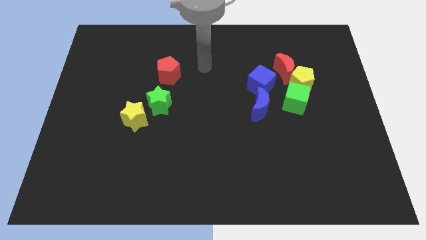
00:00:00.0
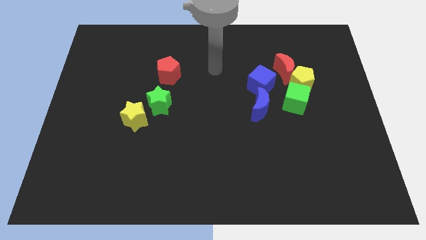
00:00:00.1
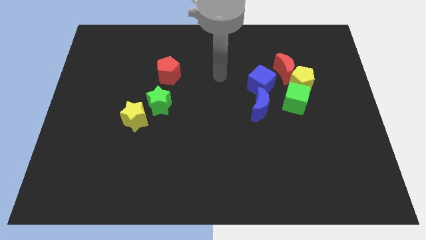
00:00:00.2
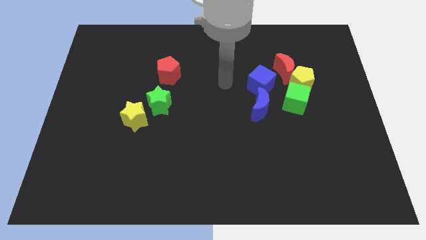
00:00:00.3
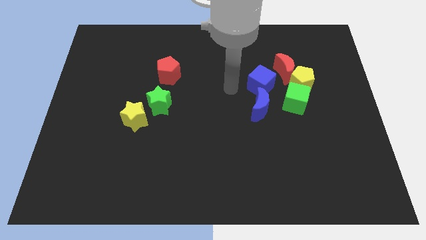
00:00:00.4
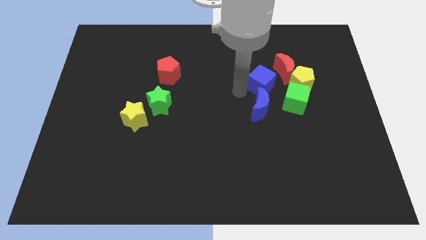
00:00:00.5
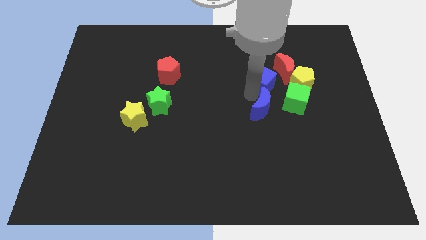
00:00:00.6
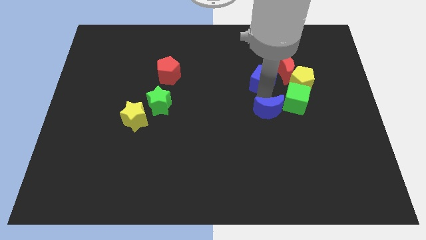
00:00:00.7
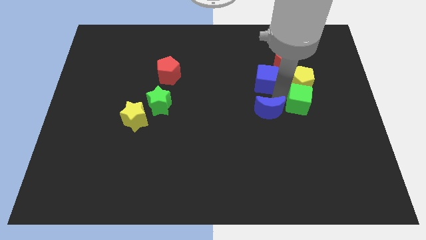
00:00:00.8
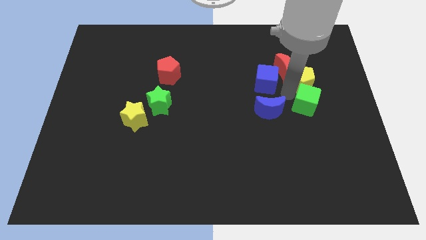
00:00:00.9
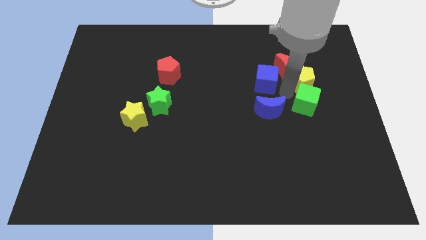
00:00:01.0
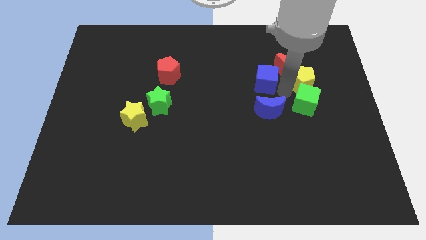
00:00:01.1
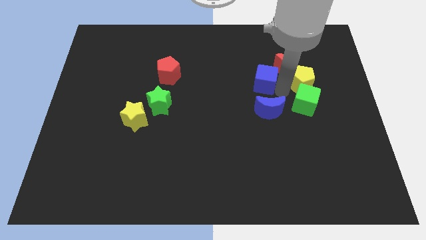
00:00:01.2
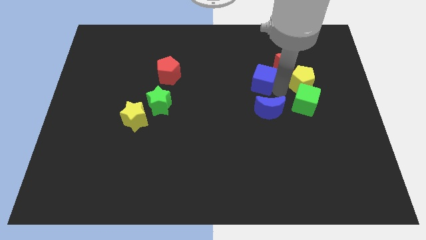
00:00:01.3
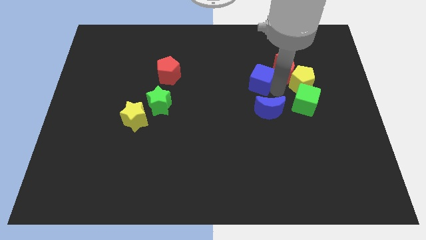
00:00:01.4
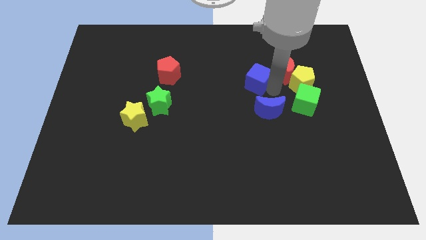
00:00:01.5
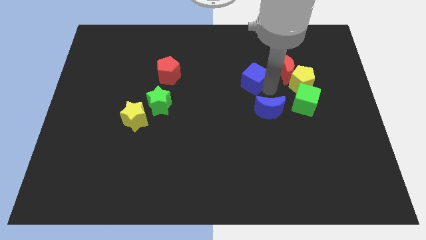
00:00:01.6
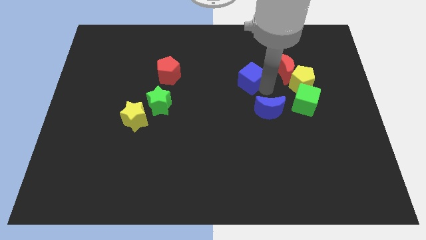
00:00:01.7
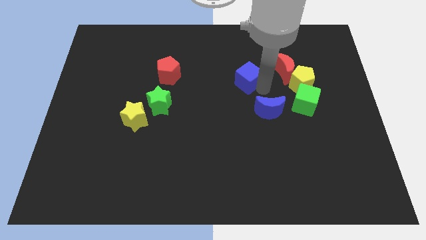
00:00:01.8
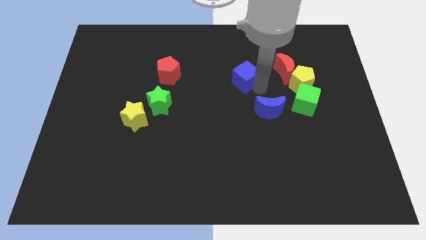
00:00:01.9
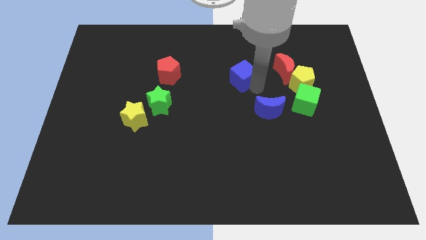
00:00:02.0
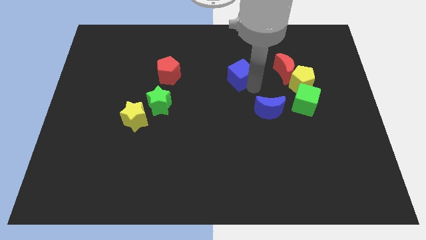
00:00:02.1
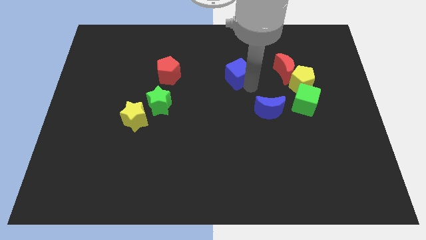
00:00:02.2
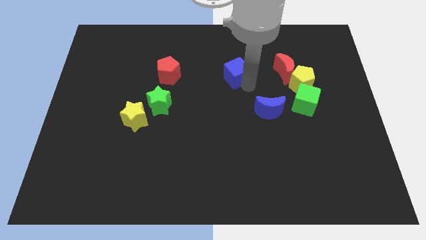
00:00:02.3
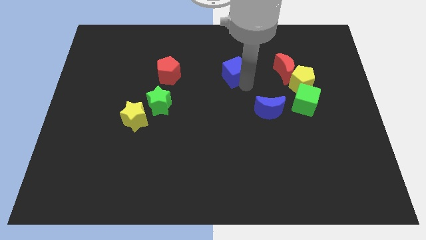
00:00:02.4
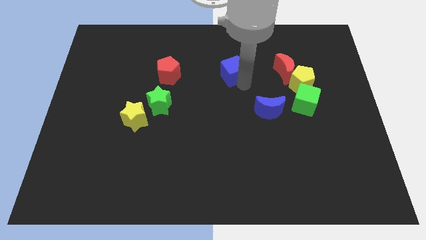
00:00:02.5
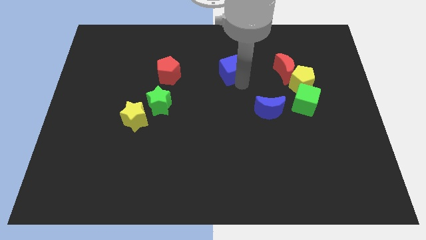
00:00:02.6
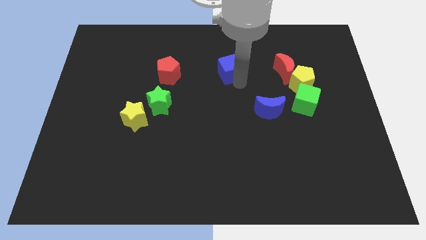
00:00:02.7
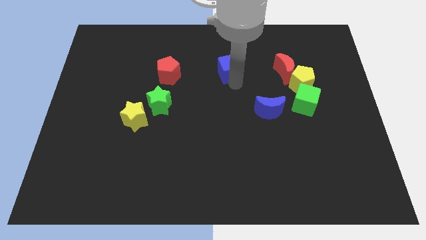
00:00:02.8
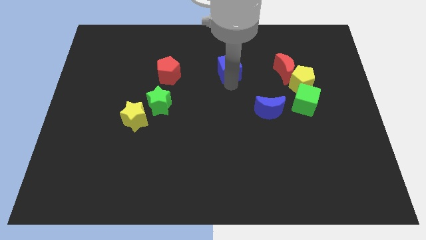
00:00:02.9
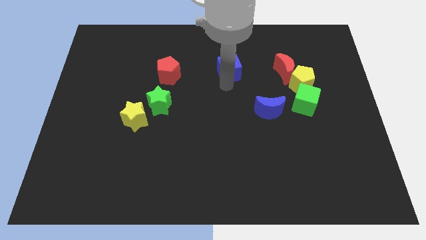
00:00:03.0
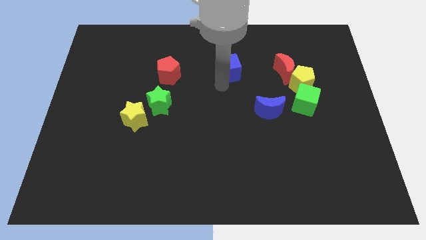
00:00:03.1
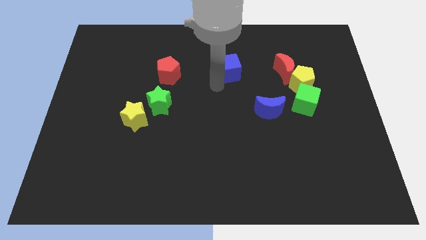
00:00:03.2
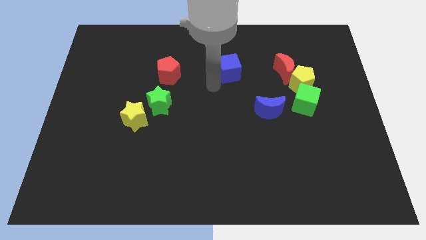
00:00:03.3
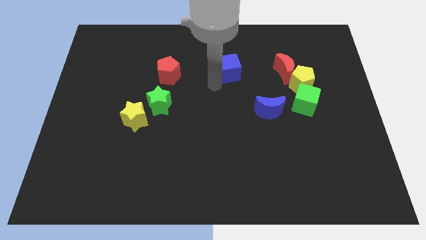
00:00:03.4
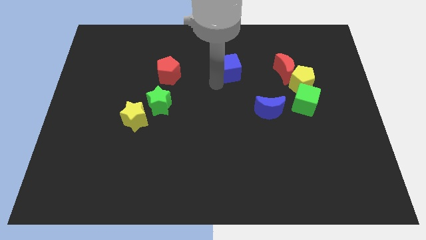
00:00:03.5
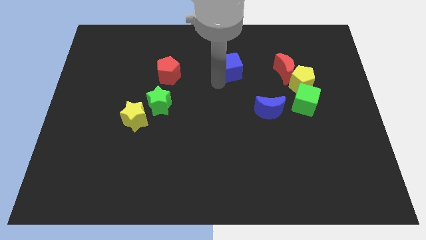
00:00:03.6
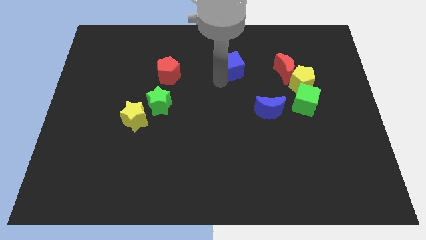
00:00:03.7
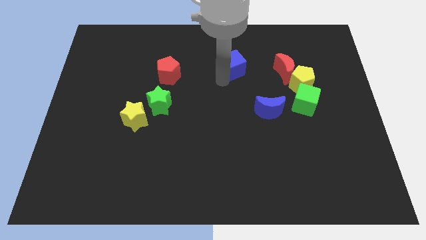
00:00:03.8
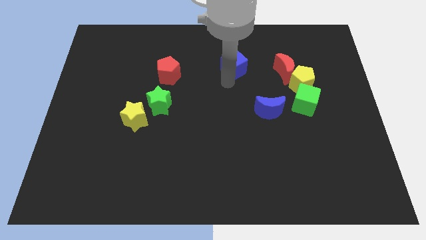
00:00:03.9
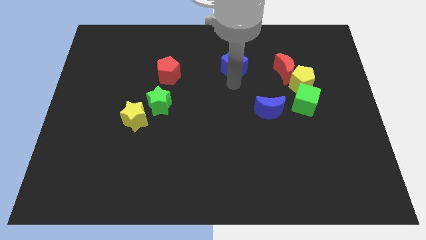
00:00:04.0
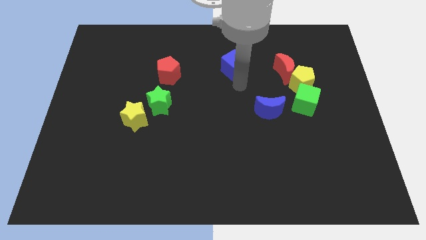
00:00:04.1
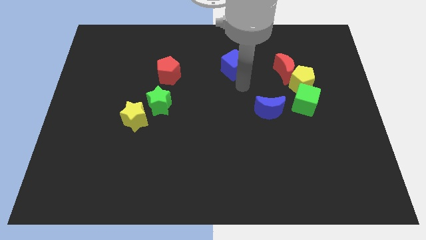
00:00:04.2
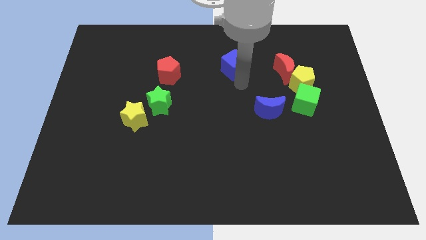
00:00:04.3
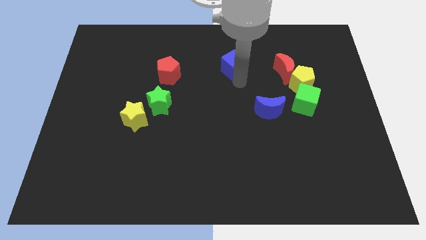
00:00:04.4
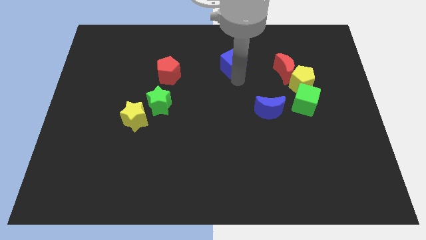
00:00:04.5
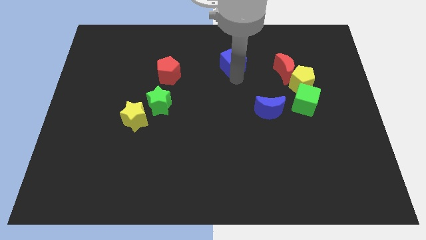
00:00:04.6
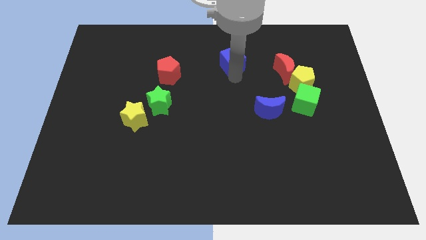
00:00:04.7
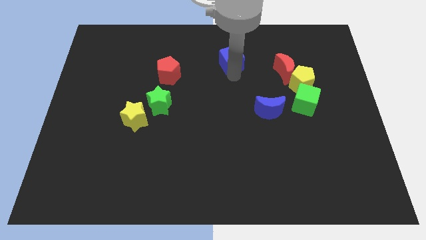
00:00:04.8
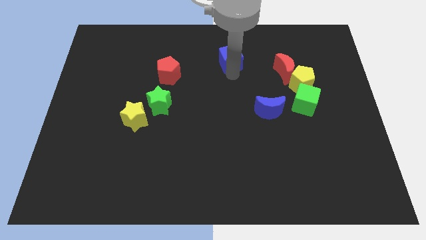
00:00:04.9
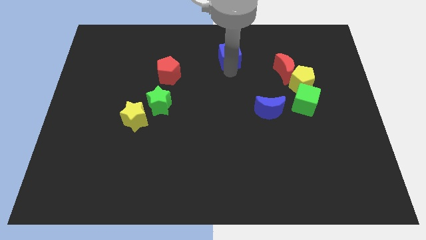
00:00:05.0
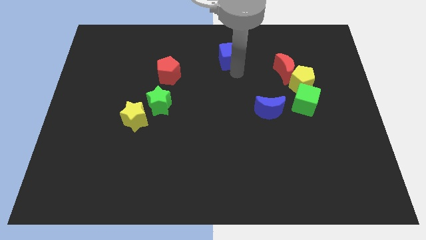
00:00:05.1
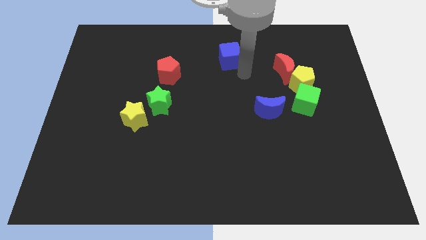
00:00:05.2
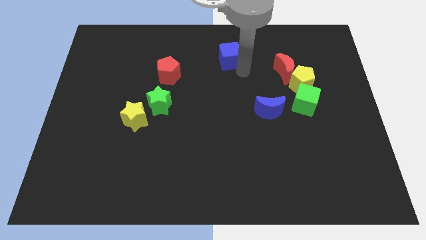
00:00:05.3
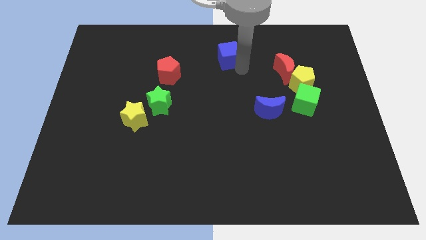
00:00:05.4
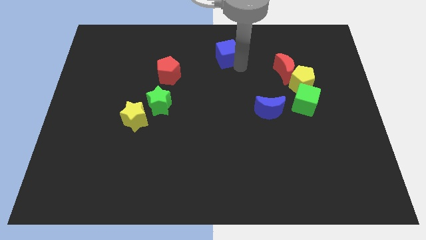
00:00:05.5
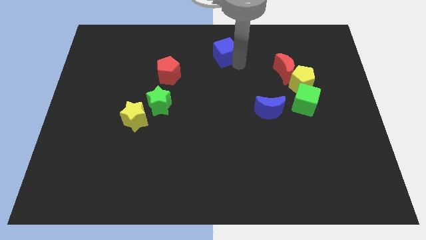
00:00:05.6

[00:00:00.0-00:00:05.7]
put the blue cube to the top side
